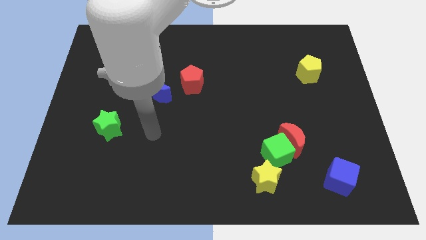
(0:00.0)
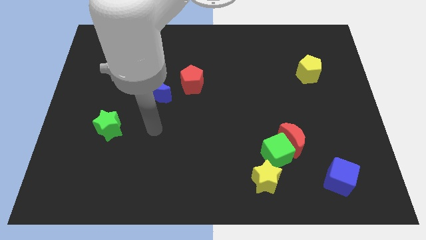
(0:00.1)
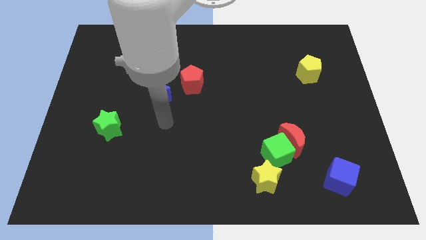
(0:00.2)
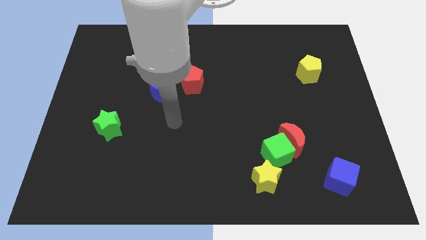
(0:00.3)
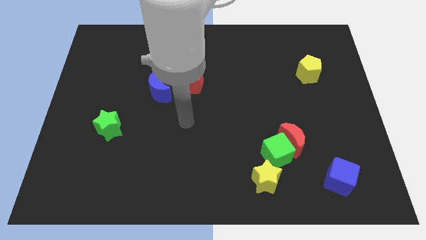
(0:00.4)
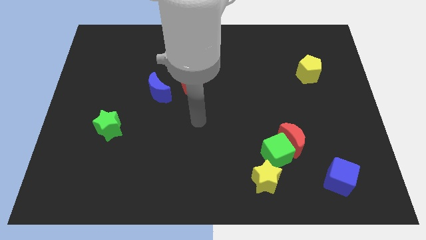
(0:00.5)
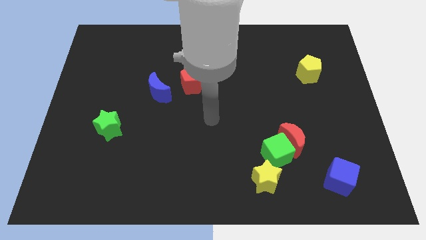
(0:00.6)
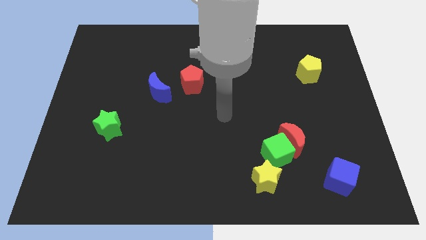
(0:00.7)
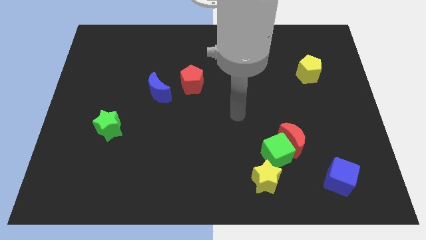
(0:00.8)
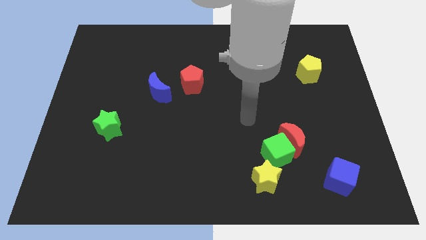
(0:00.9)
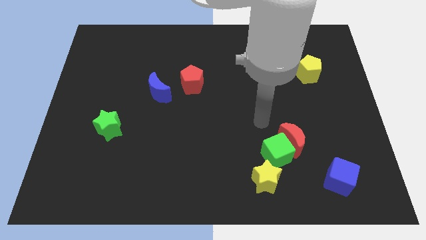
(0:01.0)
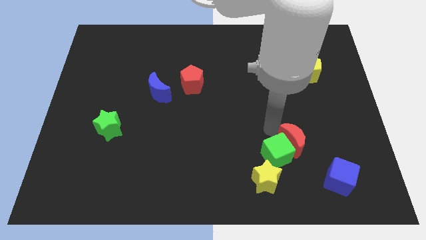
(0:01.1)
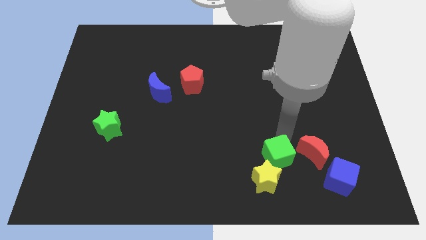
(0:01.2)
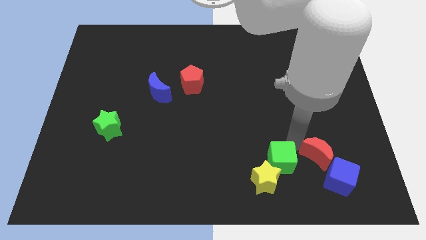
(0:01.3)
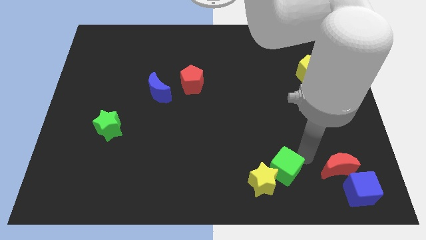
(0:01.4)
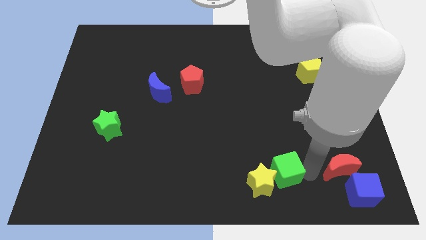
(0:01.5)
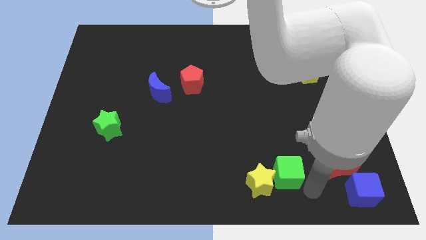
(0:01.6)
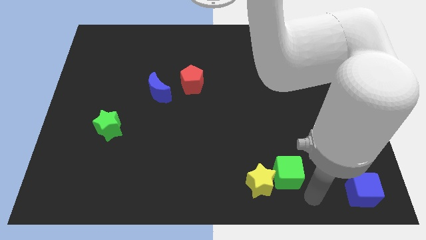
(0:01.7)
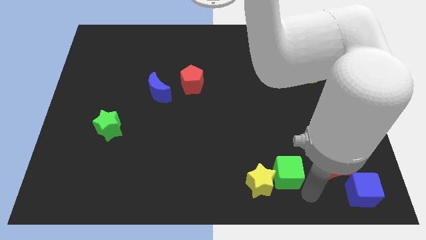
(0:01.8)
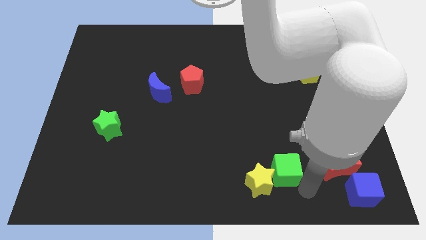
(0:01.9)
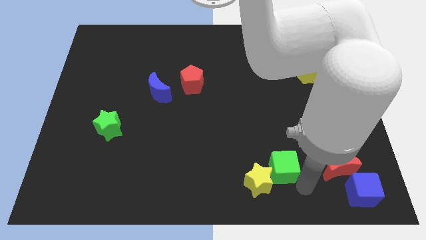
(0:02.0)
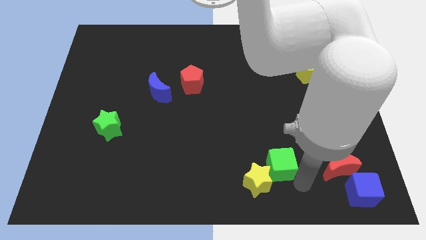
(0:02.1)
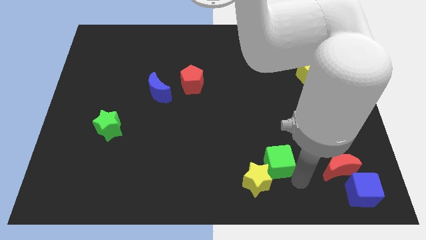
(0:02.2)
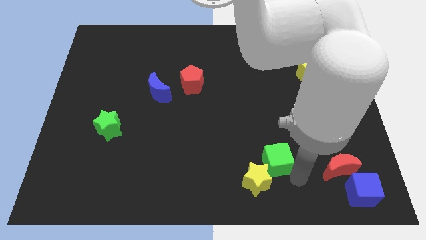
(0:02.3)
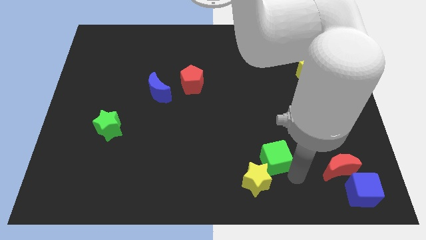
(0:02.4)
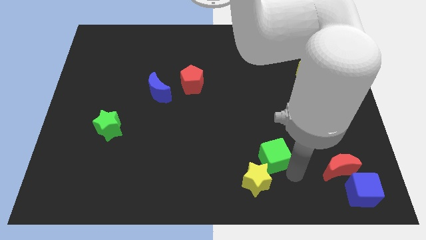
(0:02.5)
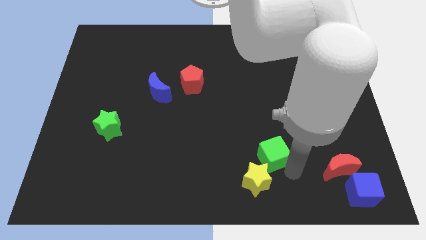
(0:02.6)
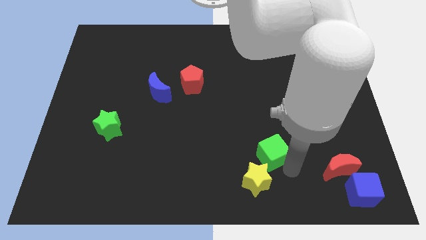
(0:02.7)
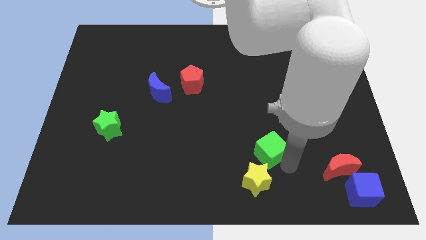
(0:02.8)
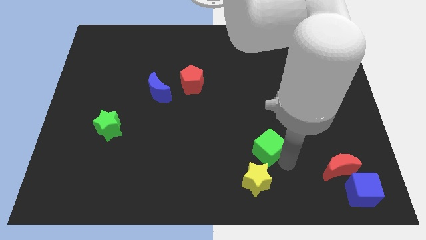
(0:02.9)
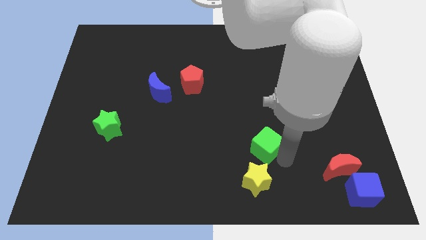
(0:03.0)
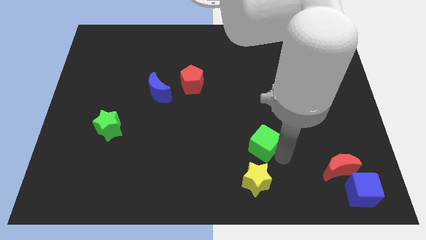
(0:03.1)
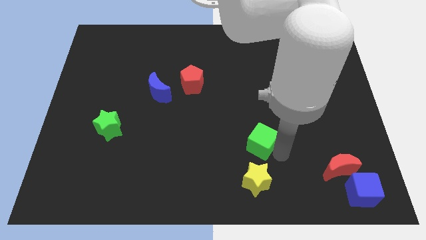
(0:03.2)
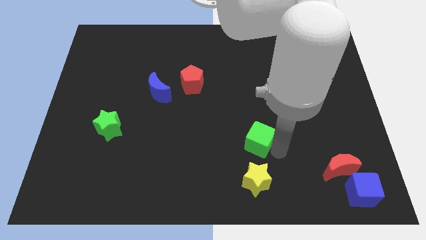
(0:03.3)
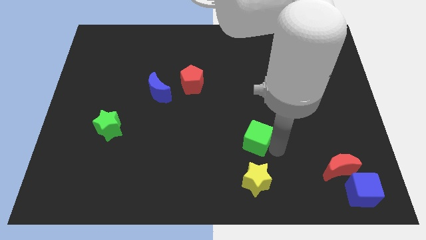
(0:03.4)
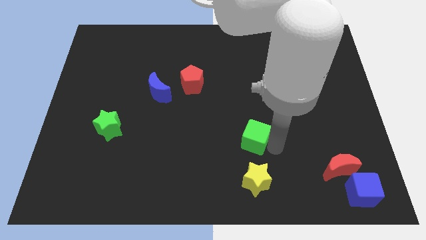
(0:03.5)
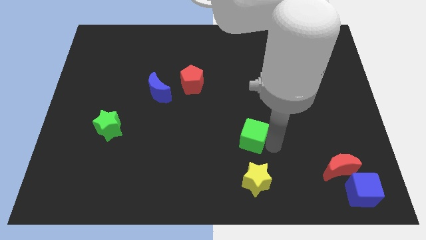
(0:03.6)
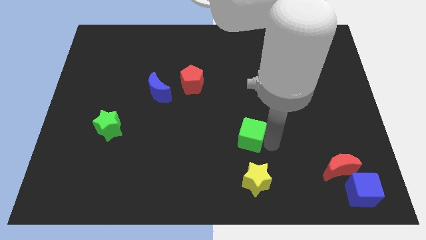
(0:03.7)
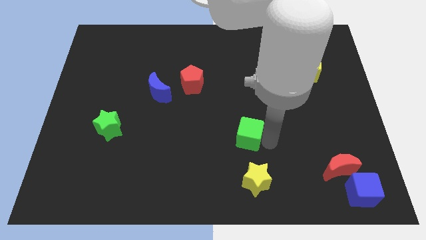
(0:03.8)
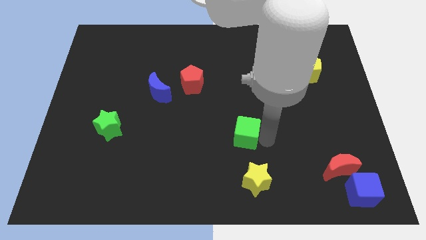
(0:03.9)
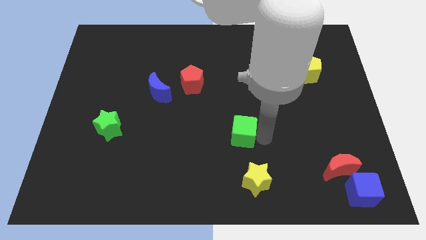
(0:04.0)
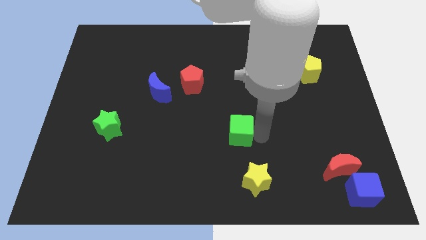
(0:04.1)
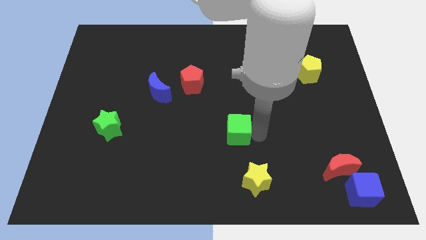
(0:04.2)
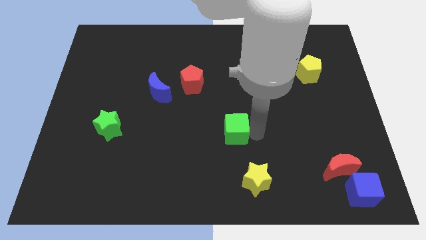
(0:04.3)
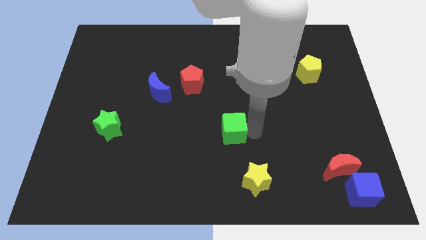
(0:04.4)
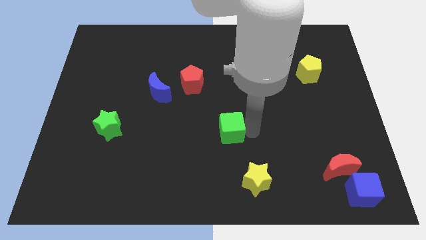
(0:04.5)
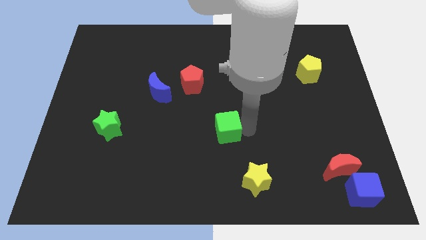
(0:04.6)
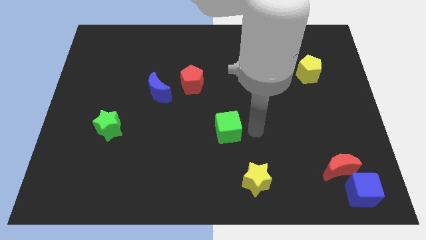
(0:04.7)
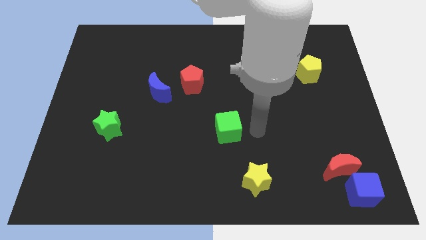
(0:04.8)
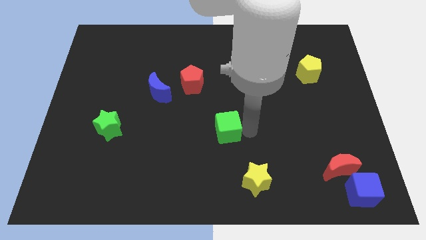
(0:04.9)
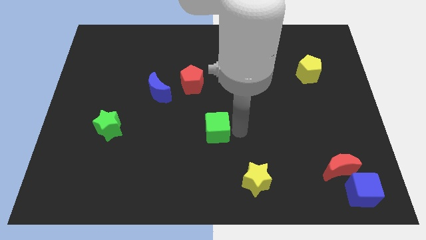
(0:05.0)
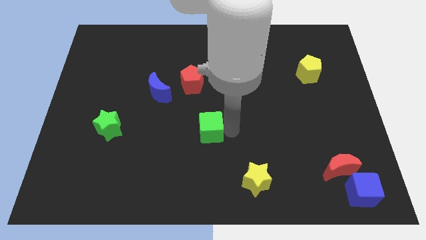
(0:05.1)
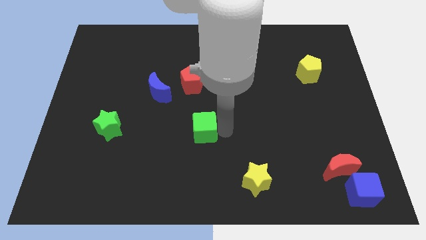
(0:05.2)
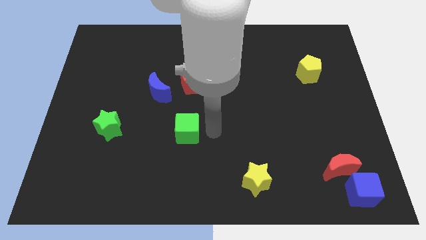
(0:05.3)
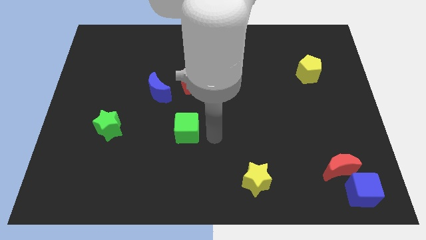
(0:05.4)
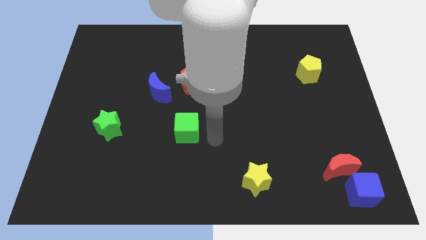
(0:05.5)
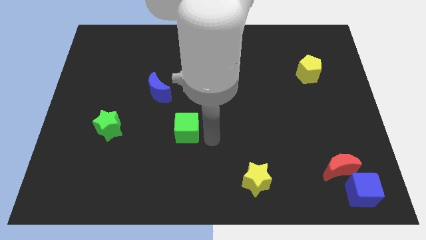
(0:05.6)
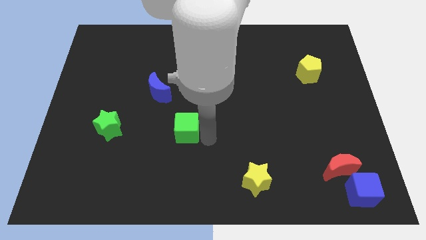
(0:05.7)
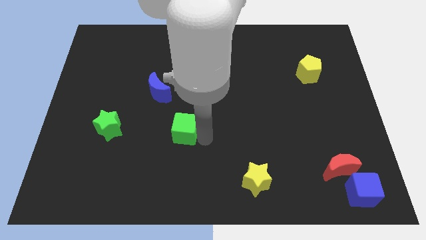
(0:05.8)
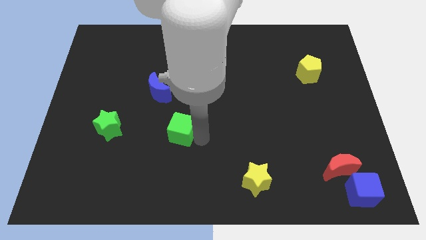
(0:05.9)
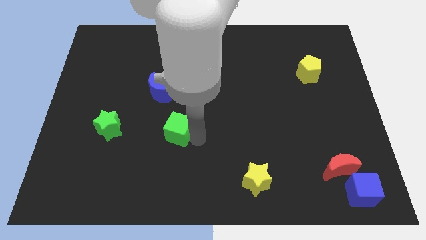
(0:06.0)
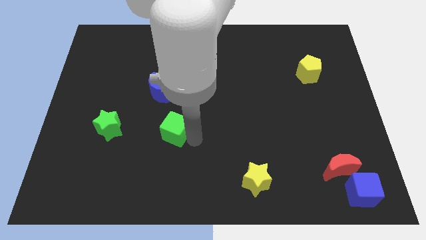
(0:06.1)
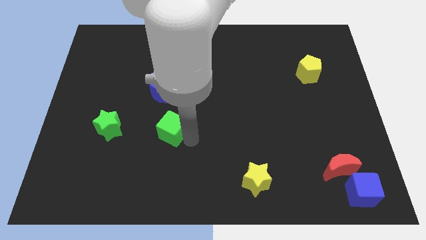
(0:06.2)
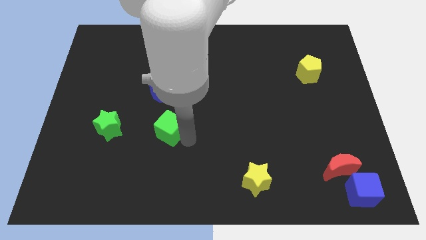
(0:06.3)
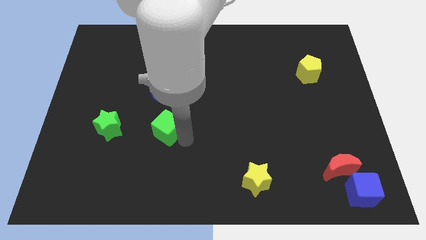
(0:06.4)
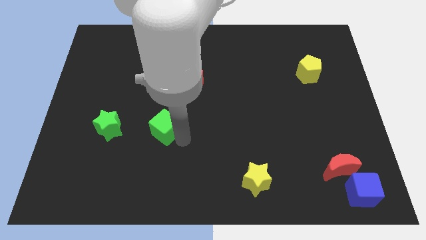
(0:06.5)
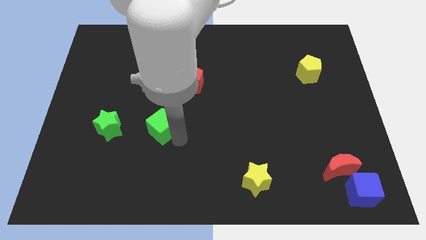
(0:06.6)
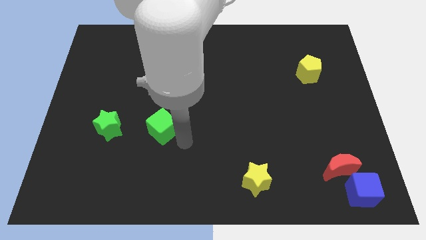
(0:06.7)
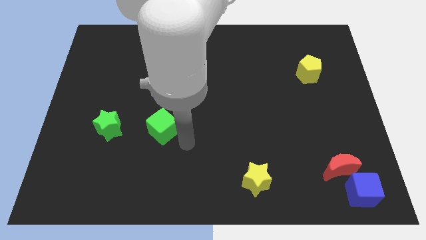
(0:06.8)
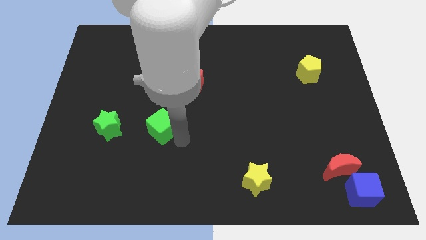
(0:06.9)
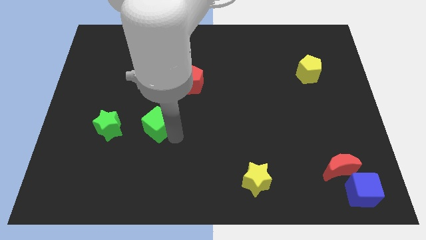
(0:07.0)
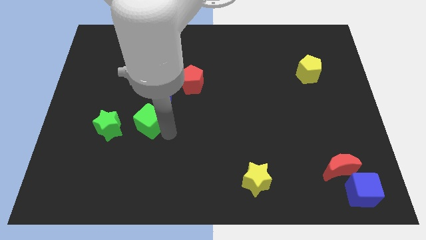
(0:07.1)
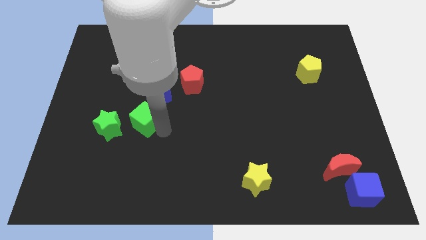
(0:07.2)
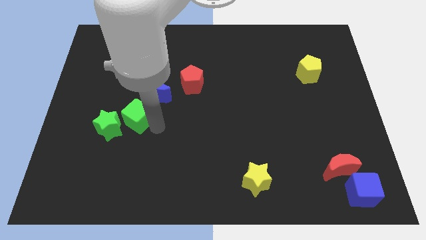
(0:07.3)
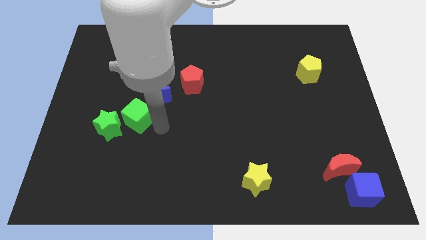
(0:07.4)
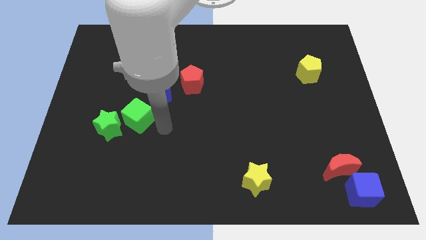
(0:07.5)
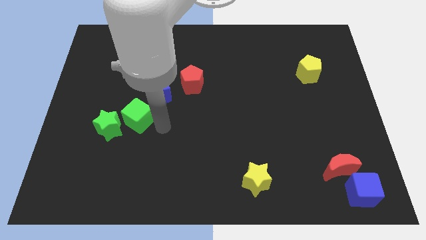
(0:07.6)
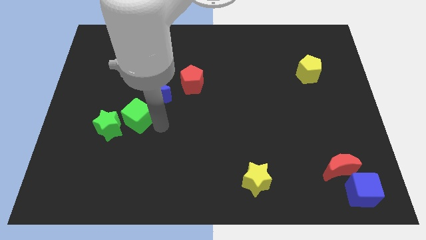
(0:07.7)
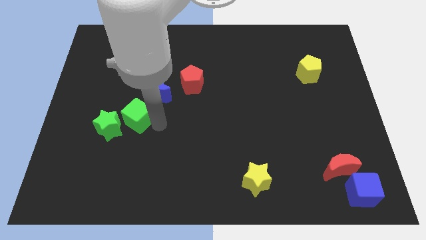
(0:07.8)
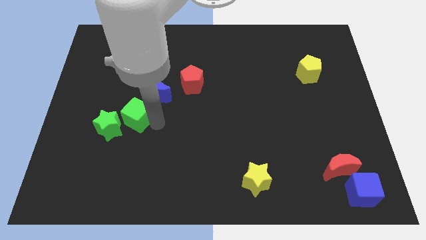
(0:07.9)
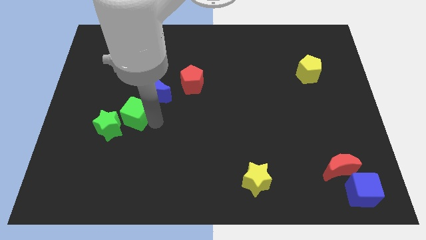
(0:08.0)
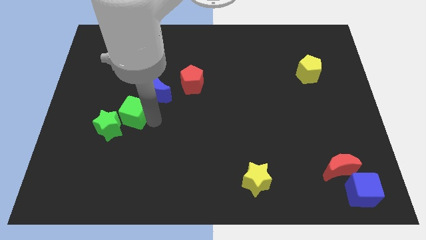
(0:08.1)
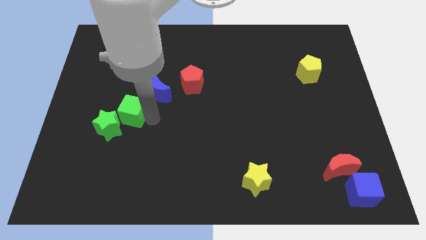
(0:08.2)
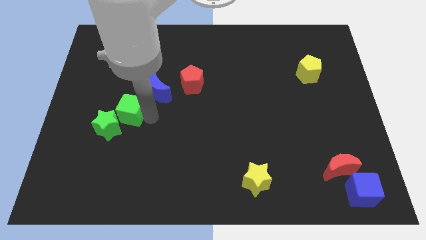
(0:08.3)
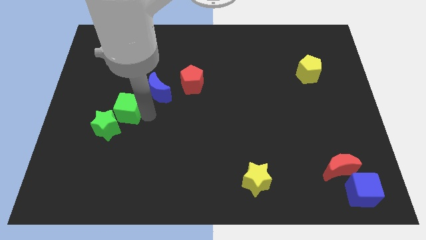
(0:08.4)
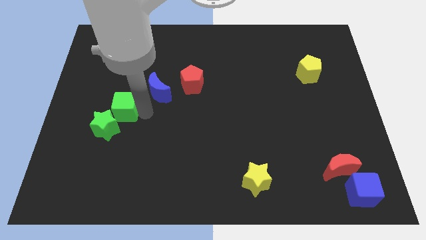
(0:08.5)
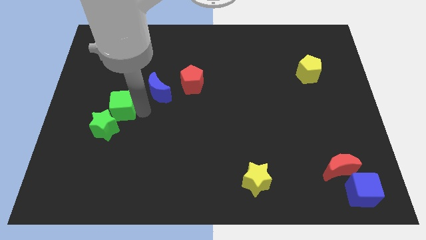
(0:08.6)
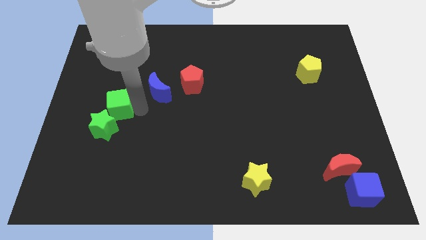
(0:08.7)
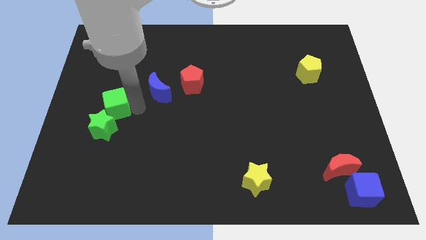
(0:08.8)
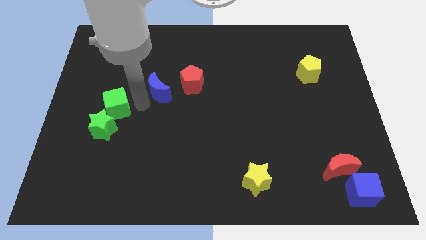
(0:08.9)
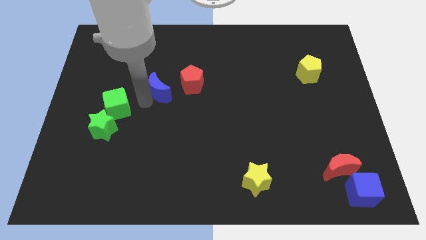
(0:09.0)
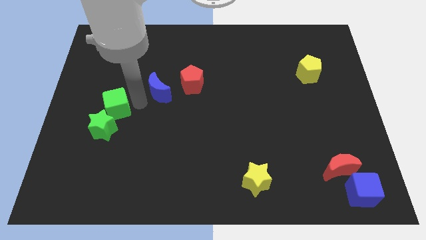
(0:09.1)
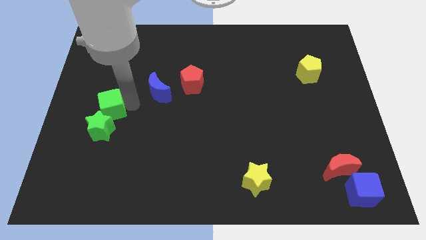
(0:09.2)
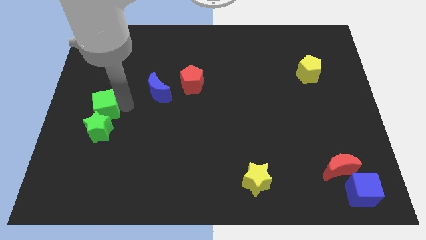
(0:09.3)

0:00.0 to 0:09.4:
slide the green cube to the left side of the board
